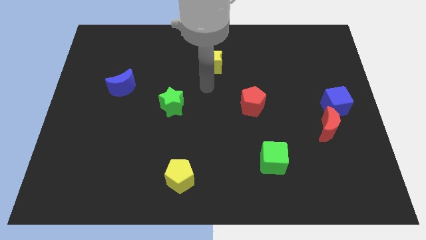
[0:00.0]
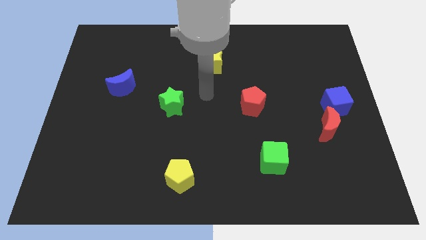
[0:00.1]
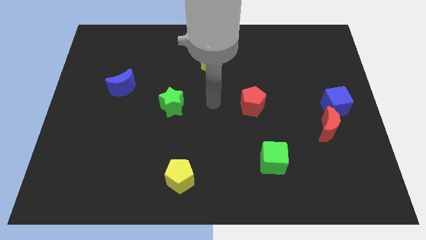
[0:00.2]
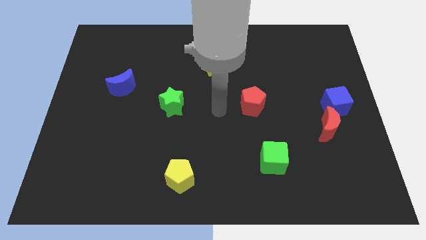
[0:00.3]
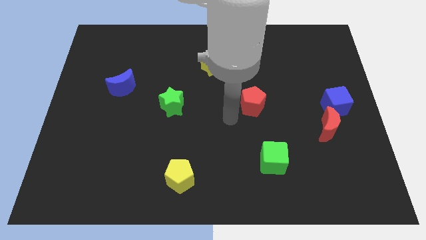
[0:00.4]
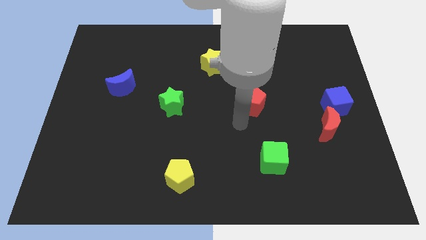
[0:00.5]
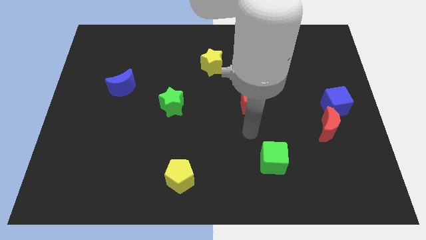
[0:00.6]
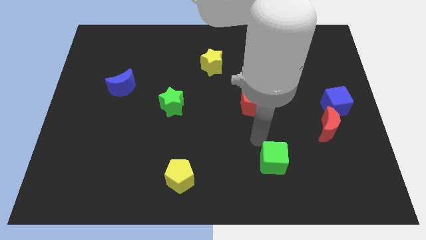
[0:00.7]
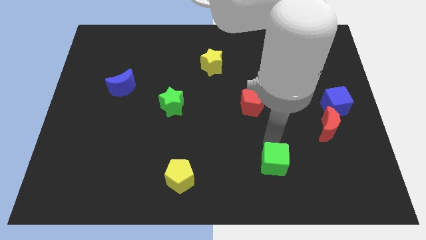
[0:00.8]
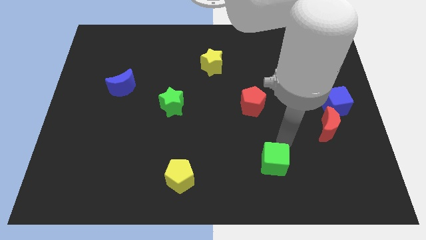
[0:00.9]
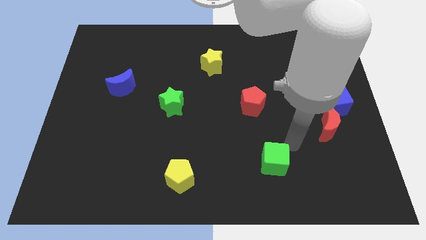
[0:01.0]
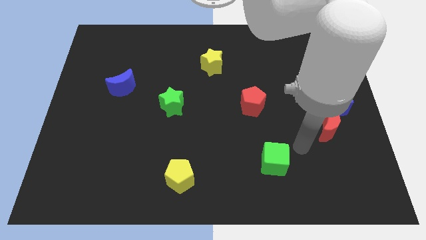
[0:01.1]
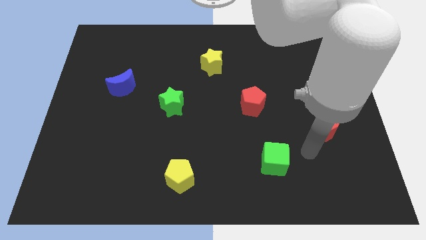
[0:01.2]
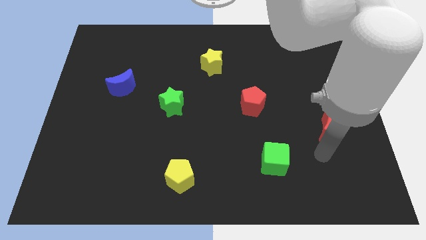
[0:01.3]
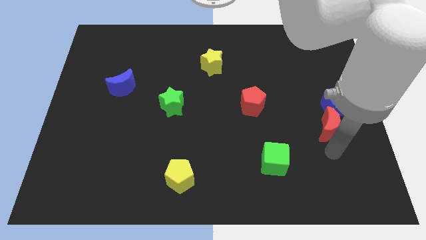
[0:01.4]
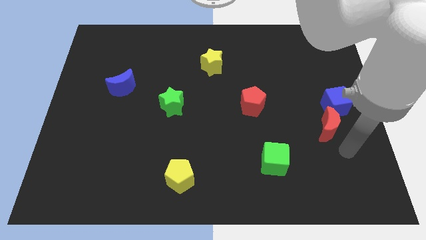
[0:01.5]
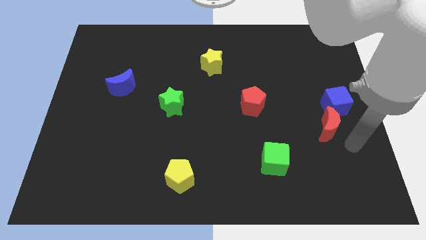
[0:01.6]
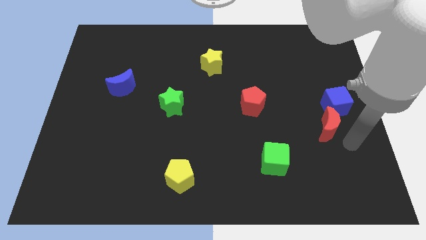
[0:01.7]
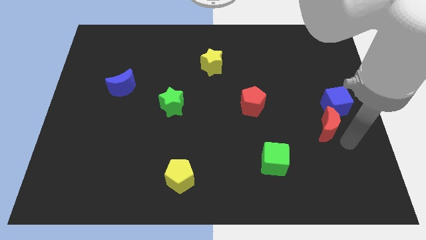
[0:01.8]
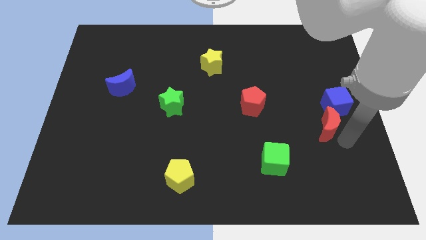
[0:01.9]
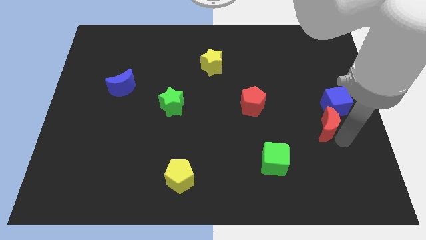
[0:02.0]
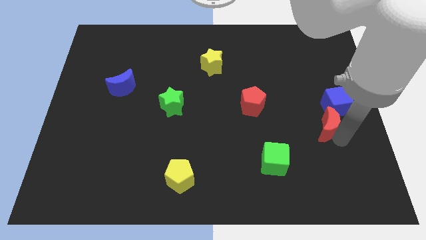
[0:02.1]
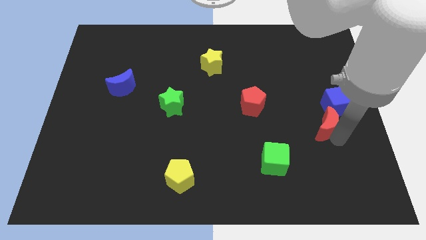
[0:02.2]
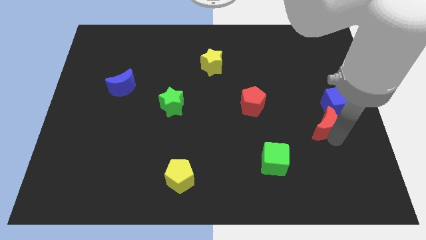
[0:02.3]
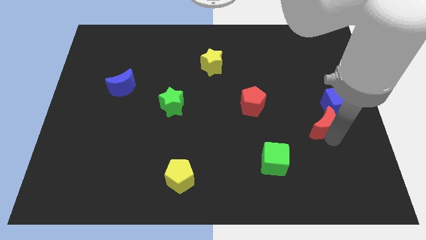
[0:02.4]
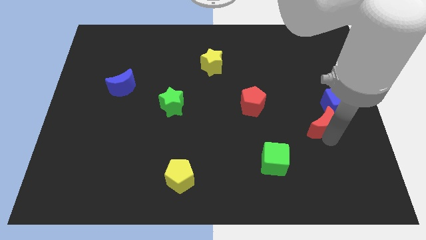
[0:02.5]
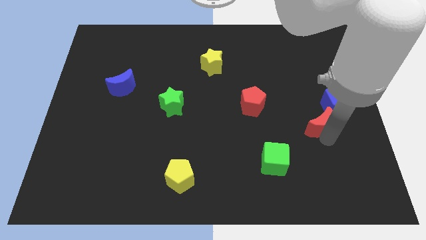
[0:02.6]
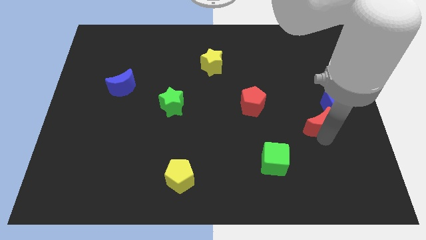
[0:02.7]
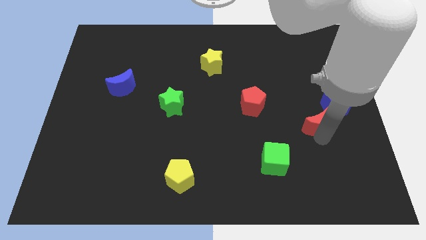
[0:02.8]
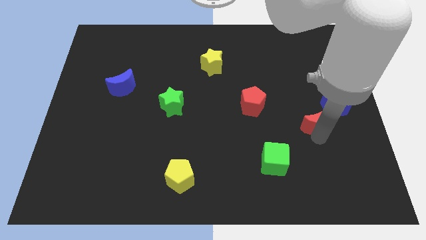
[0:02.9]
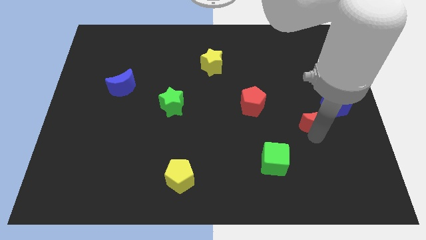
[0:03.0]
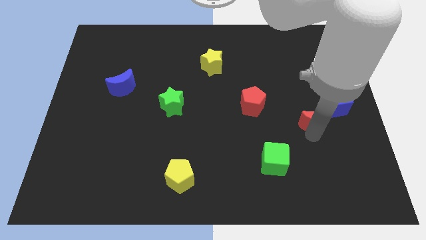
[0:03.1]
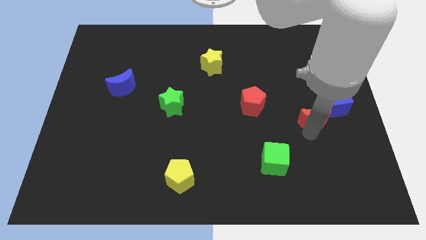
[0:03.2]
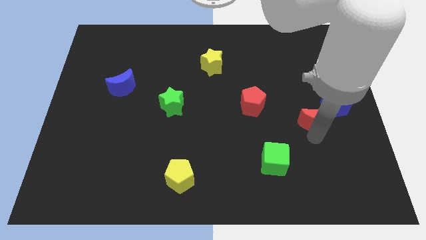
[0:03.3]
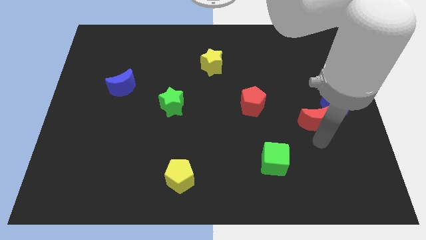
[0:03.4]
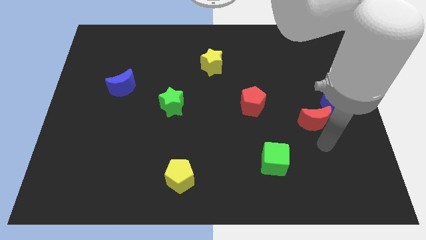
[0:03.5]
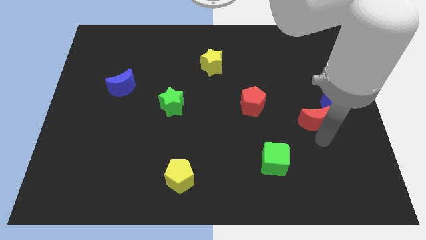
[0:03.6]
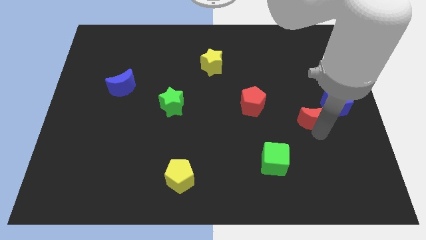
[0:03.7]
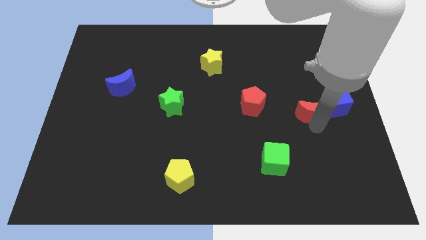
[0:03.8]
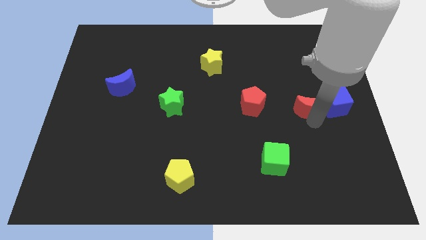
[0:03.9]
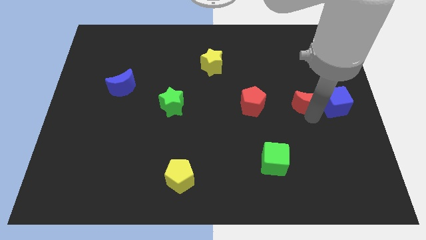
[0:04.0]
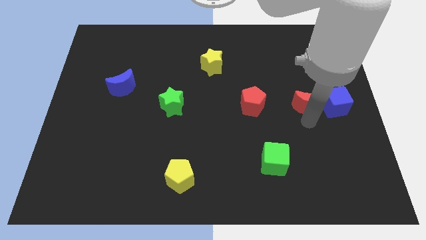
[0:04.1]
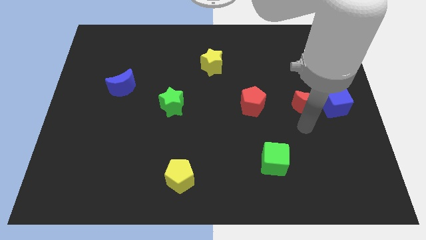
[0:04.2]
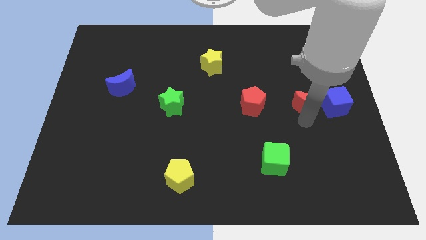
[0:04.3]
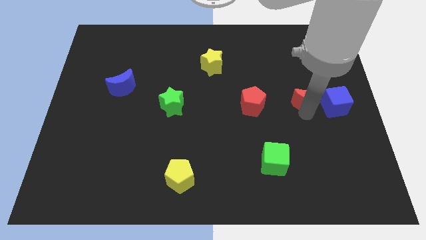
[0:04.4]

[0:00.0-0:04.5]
push the red moon upwards somewhat

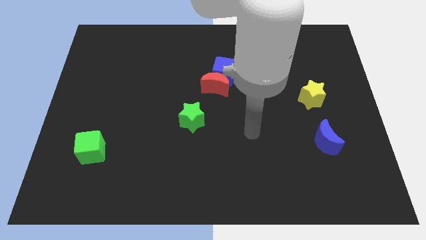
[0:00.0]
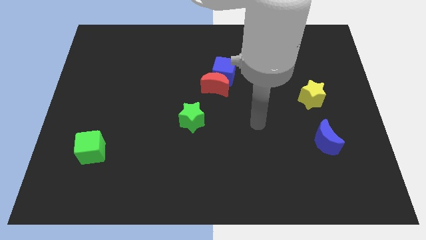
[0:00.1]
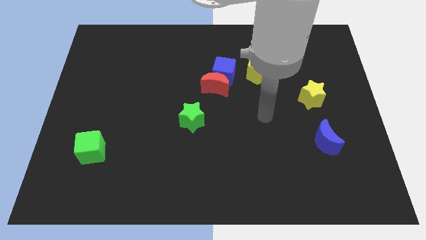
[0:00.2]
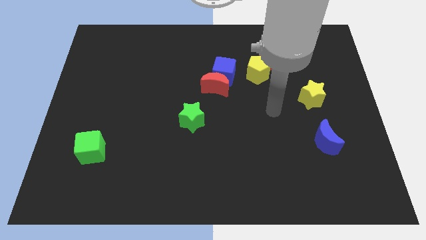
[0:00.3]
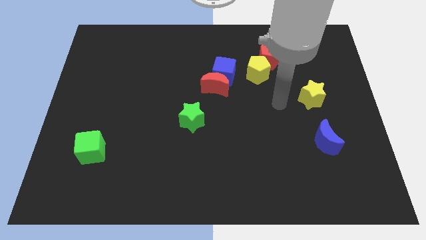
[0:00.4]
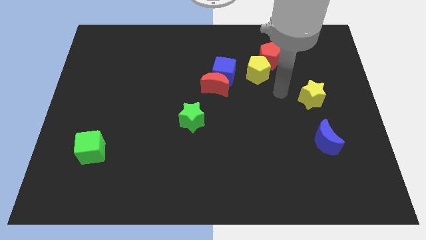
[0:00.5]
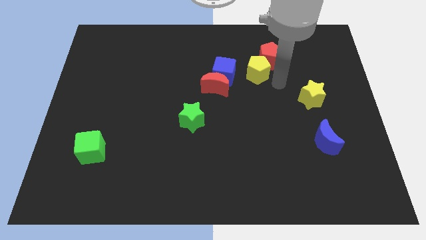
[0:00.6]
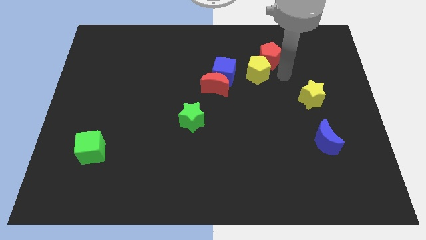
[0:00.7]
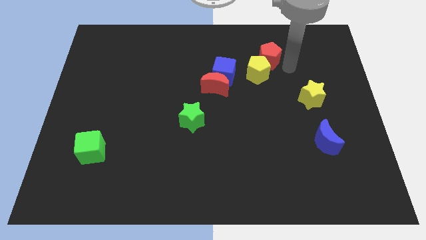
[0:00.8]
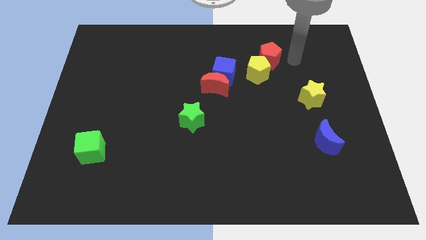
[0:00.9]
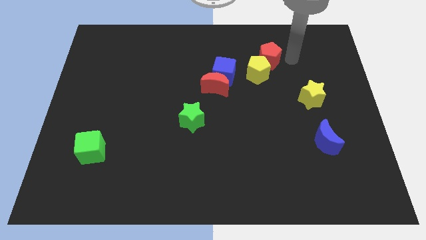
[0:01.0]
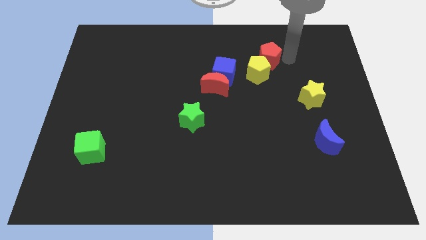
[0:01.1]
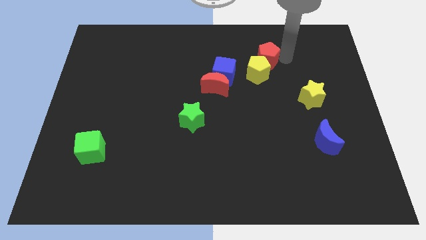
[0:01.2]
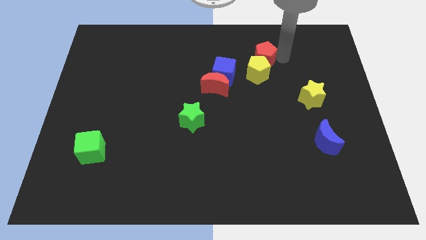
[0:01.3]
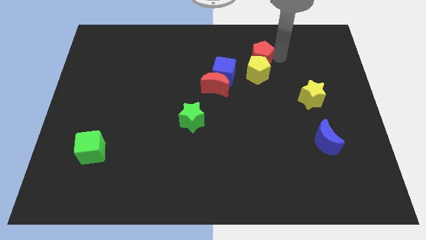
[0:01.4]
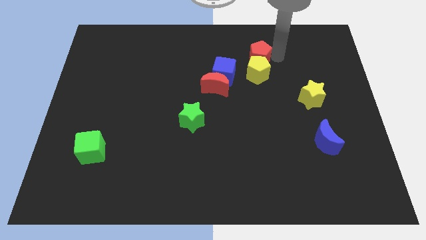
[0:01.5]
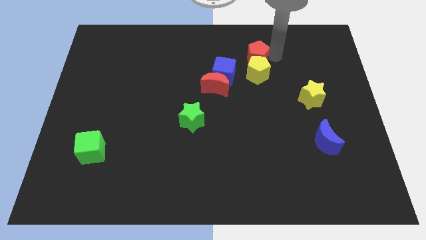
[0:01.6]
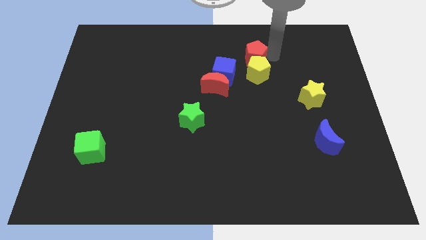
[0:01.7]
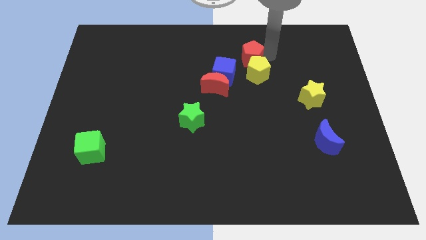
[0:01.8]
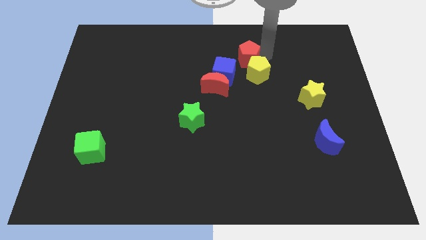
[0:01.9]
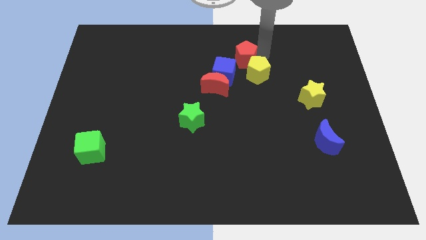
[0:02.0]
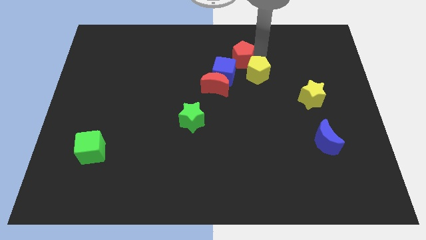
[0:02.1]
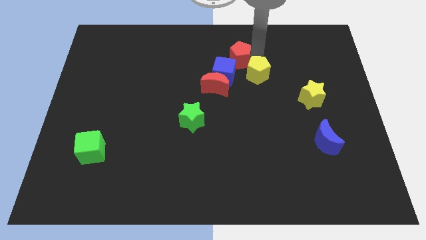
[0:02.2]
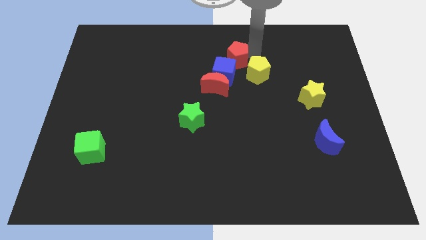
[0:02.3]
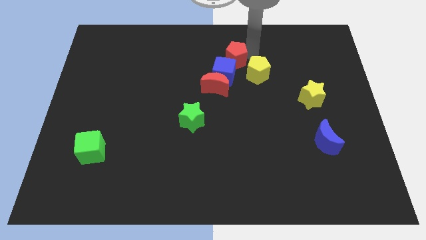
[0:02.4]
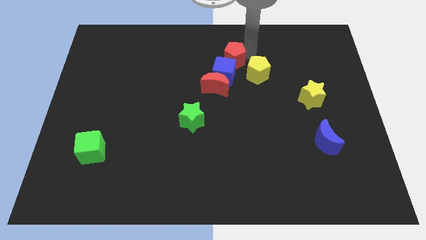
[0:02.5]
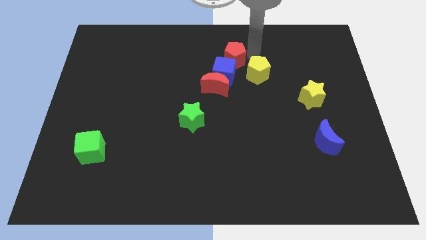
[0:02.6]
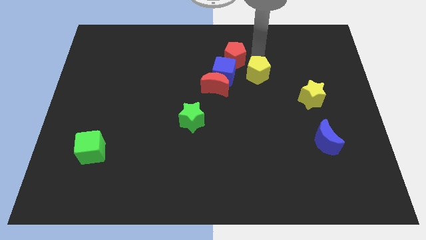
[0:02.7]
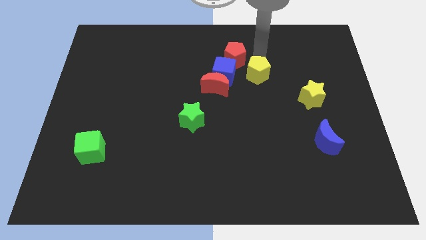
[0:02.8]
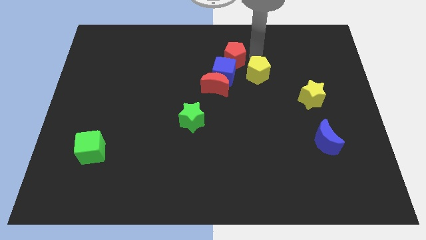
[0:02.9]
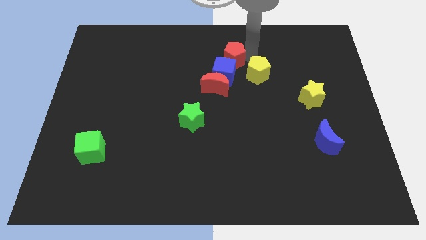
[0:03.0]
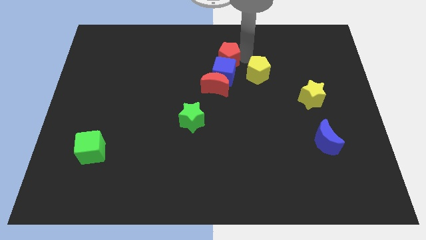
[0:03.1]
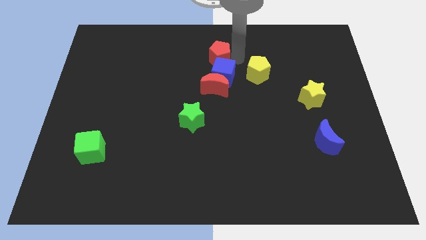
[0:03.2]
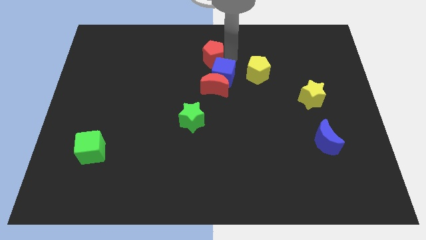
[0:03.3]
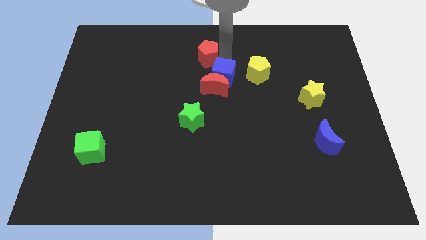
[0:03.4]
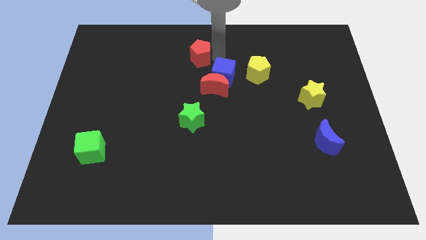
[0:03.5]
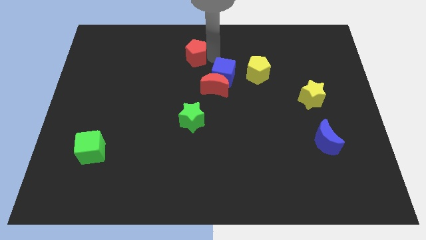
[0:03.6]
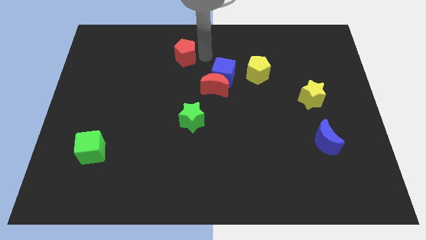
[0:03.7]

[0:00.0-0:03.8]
push the red pentagon left
